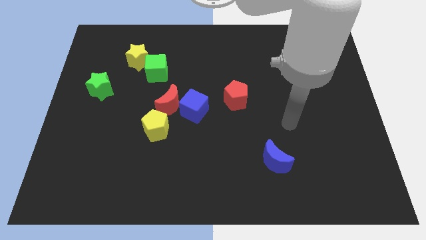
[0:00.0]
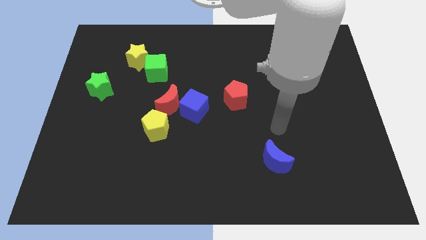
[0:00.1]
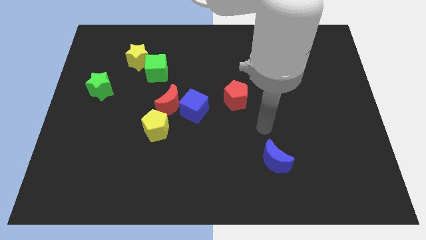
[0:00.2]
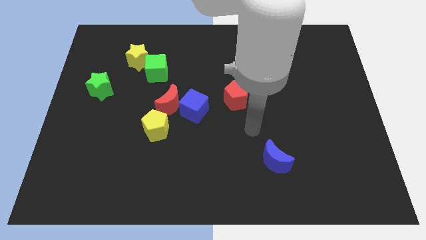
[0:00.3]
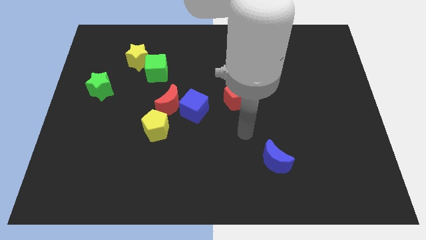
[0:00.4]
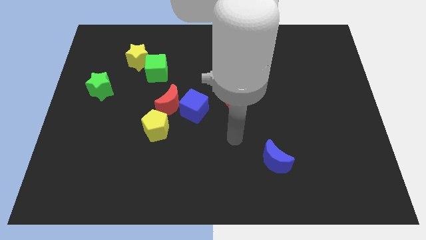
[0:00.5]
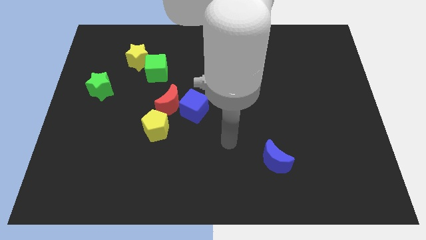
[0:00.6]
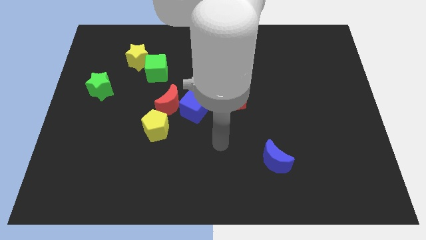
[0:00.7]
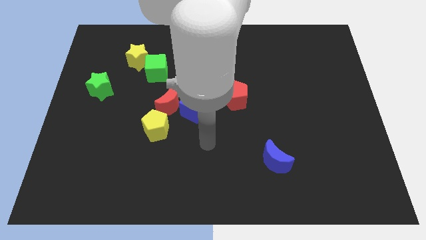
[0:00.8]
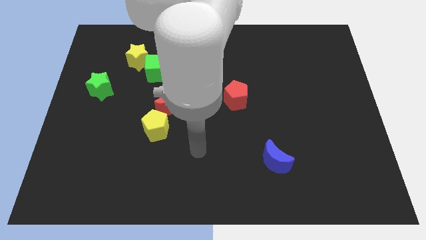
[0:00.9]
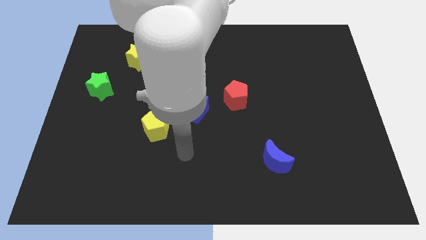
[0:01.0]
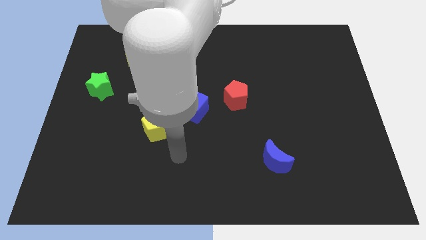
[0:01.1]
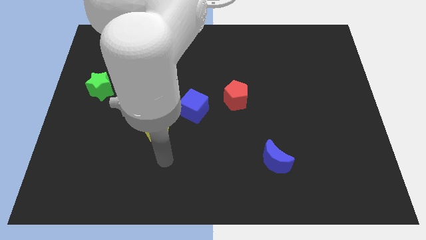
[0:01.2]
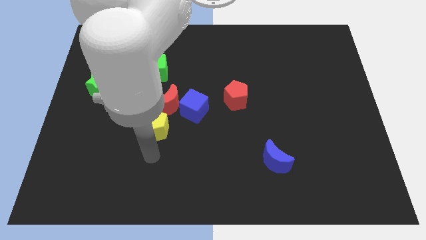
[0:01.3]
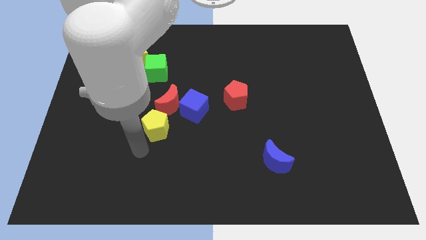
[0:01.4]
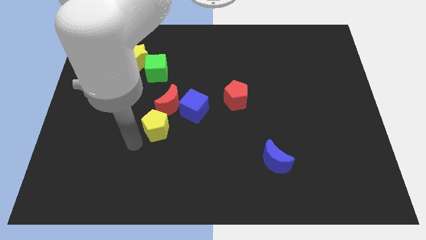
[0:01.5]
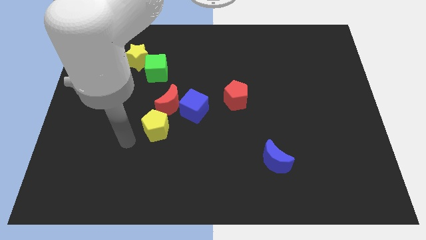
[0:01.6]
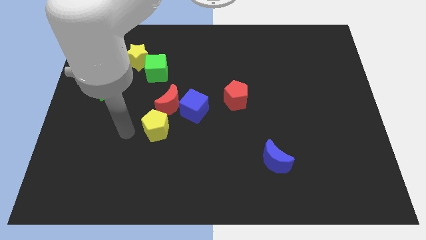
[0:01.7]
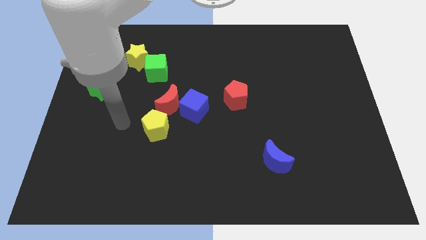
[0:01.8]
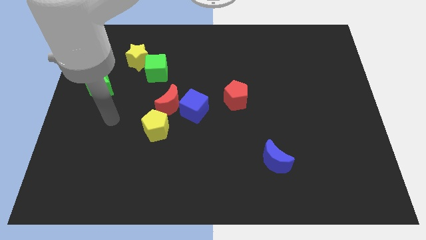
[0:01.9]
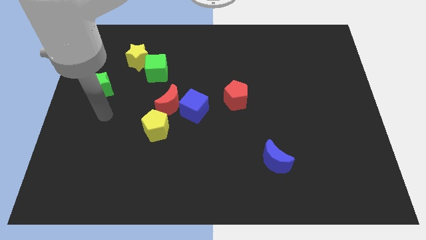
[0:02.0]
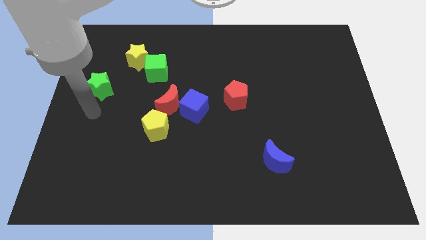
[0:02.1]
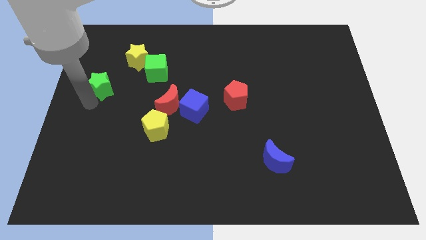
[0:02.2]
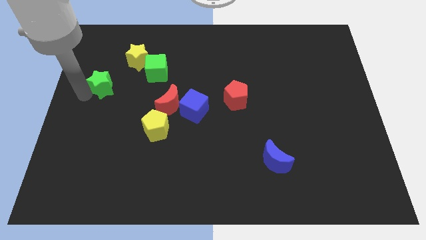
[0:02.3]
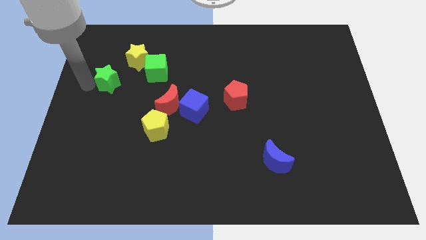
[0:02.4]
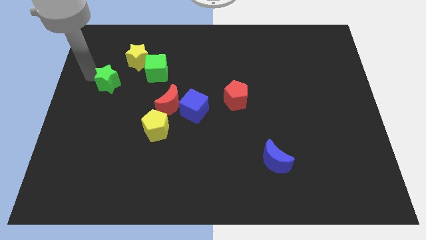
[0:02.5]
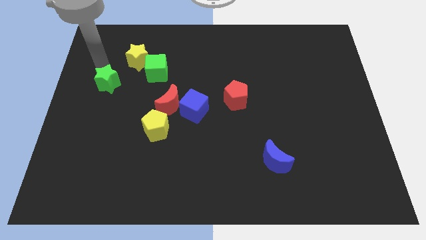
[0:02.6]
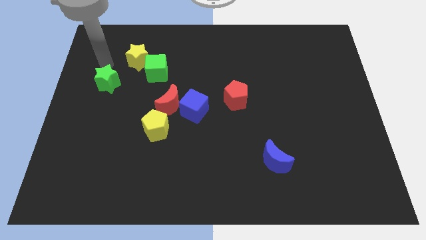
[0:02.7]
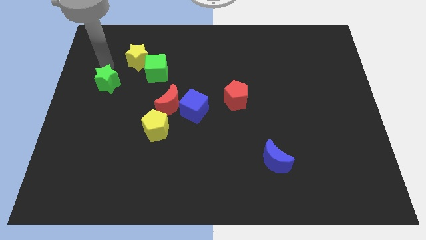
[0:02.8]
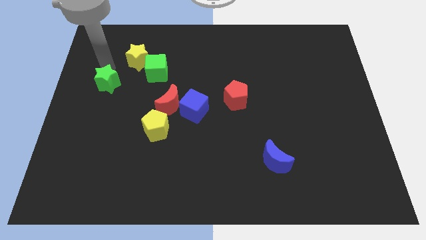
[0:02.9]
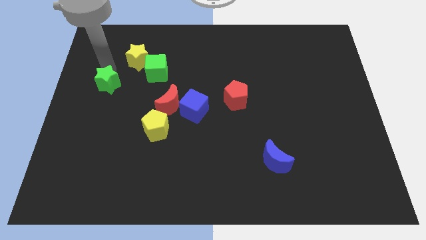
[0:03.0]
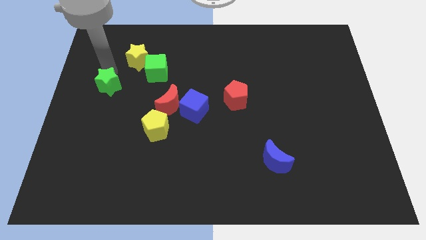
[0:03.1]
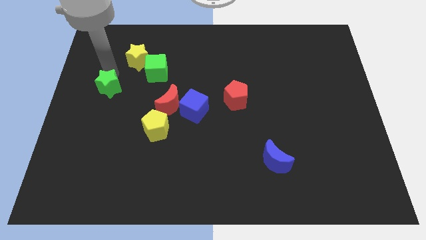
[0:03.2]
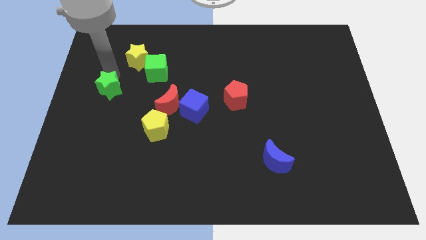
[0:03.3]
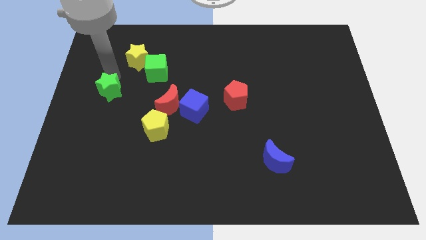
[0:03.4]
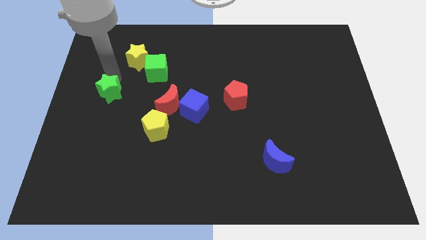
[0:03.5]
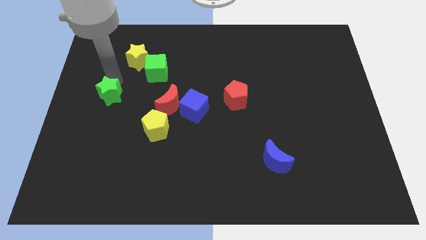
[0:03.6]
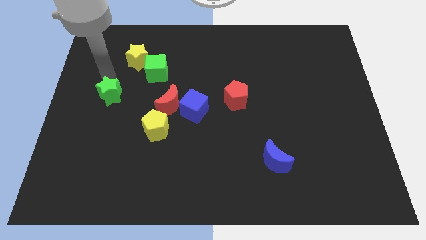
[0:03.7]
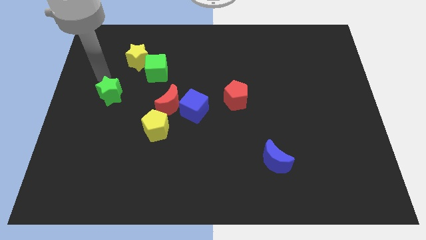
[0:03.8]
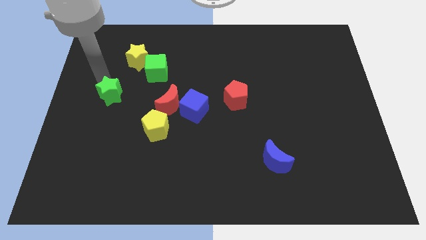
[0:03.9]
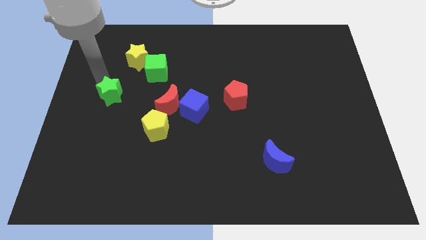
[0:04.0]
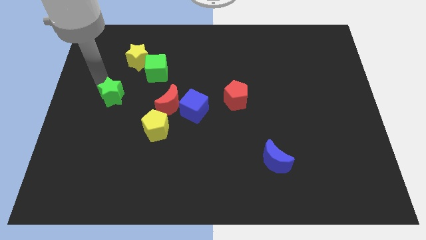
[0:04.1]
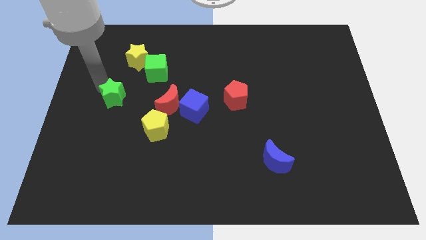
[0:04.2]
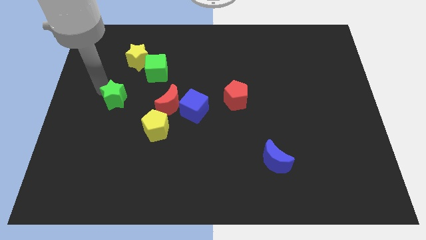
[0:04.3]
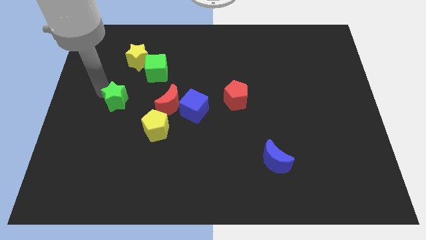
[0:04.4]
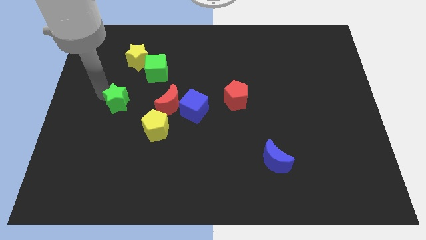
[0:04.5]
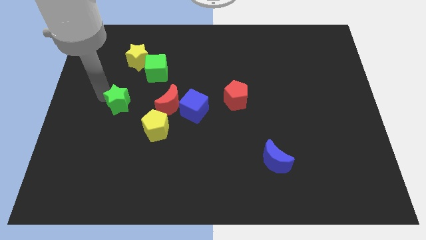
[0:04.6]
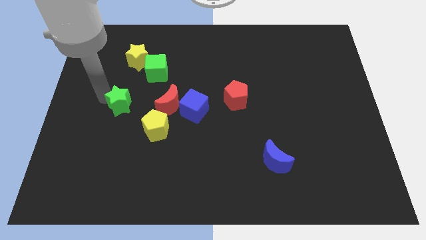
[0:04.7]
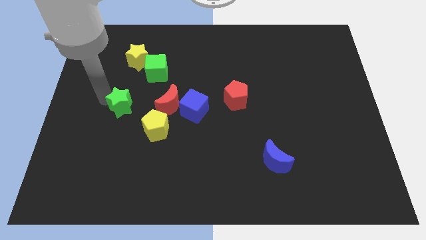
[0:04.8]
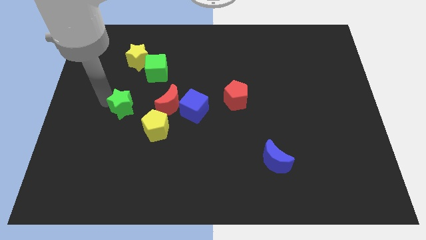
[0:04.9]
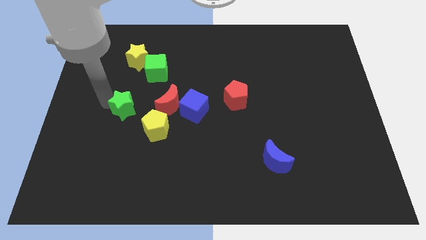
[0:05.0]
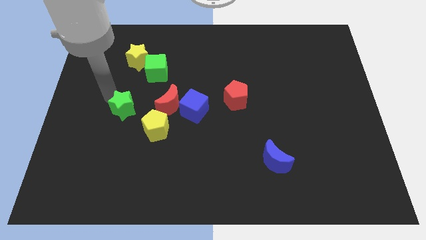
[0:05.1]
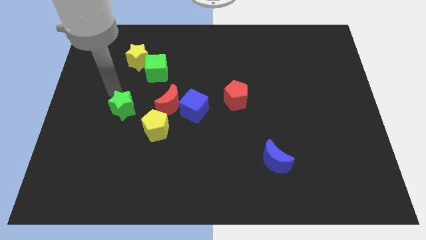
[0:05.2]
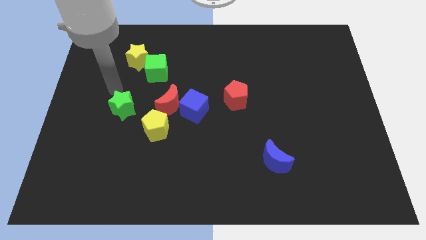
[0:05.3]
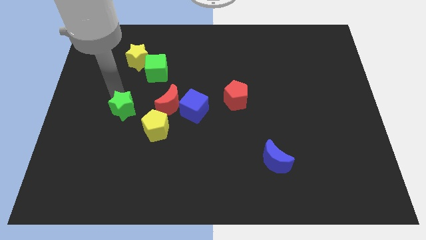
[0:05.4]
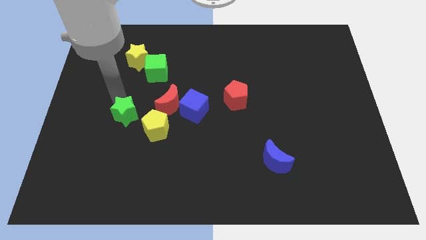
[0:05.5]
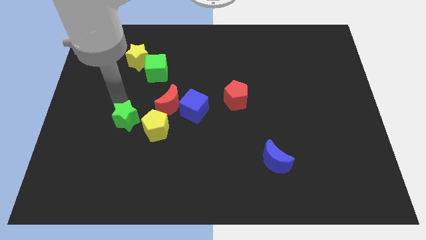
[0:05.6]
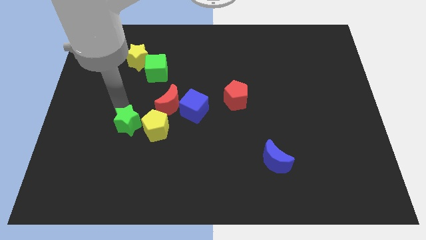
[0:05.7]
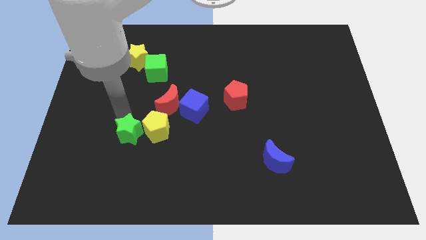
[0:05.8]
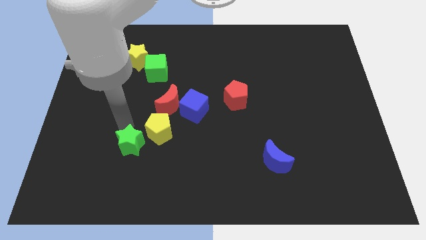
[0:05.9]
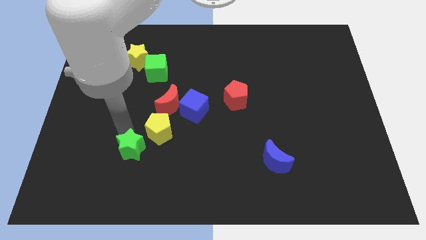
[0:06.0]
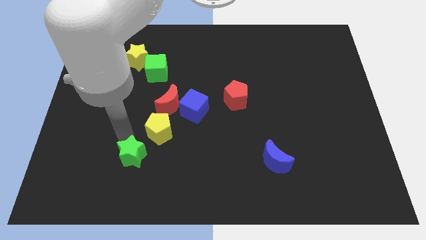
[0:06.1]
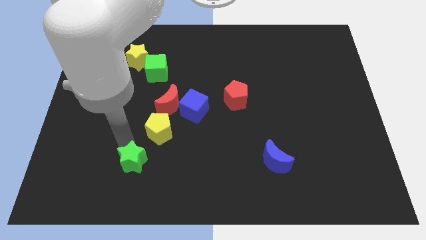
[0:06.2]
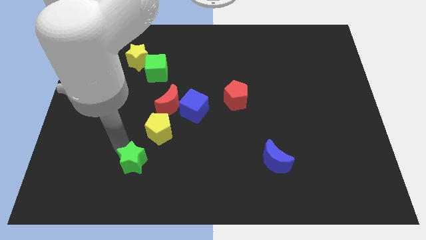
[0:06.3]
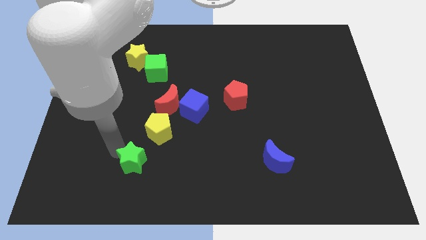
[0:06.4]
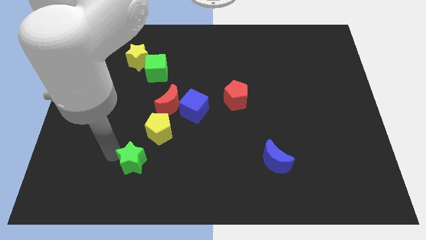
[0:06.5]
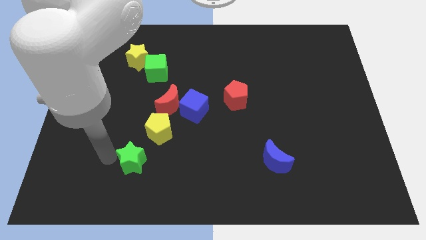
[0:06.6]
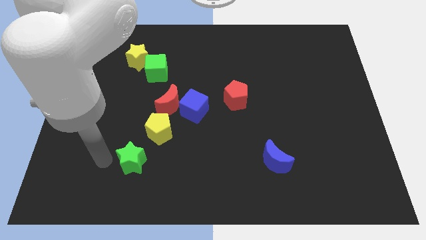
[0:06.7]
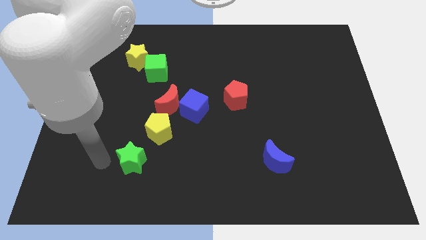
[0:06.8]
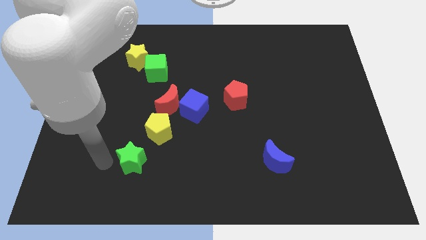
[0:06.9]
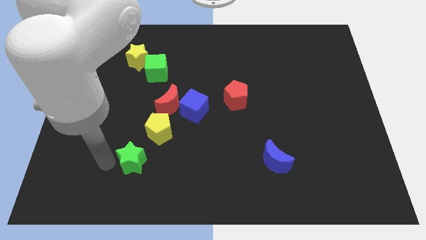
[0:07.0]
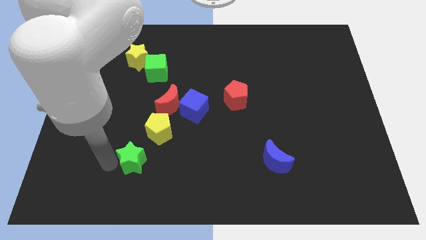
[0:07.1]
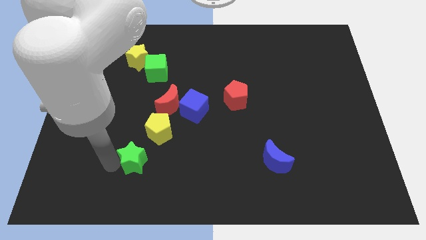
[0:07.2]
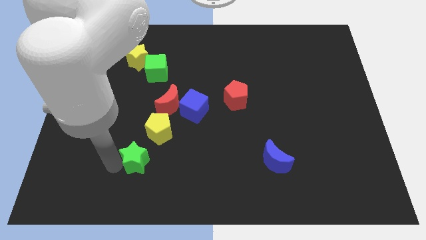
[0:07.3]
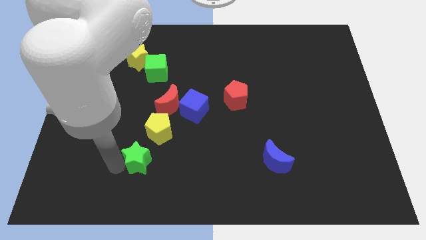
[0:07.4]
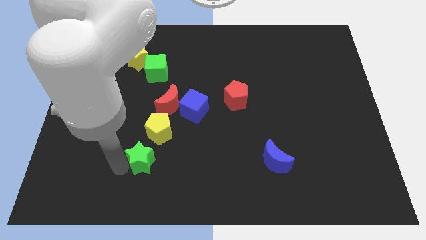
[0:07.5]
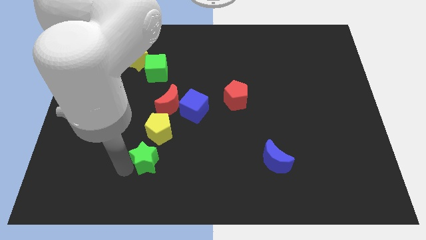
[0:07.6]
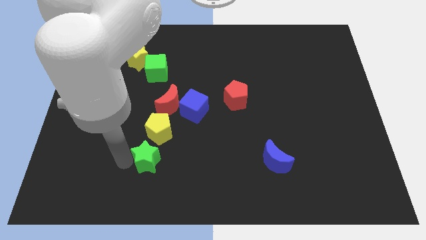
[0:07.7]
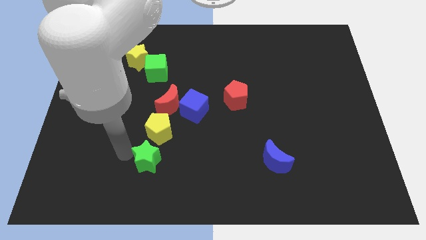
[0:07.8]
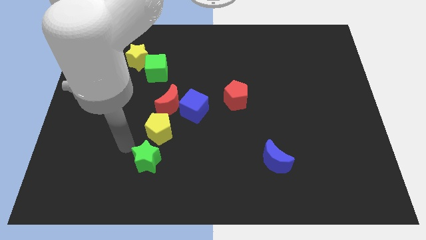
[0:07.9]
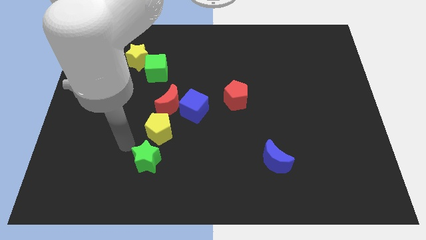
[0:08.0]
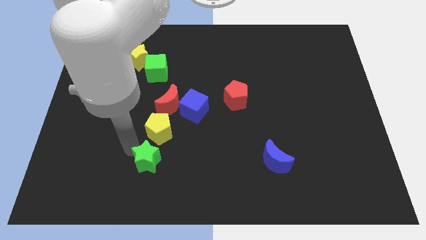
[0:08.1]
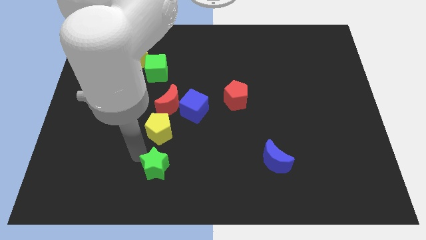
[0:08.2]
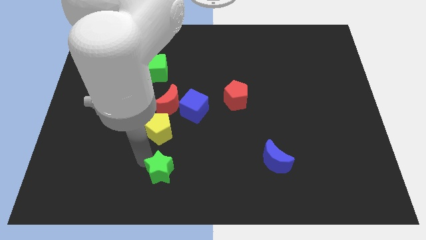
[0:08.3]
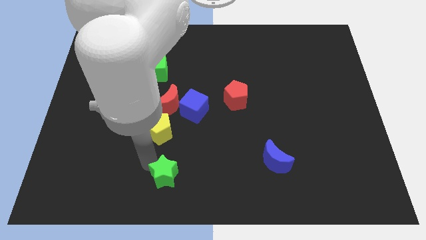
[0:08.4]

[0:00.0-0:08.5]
slide the green star to the bottom side
